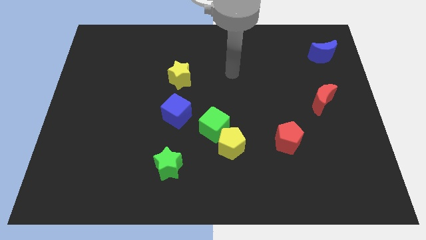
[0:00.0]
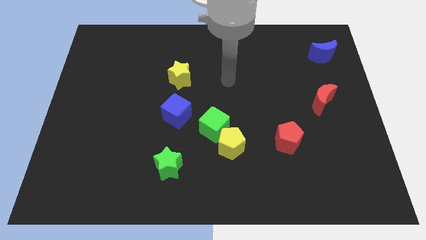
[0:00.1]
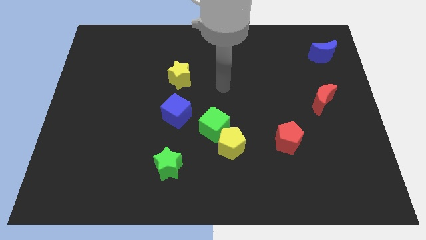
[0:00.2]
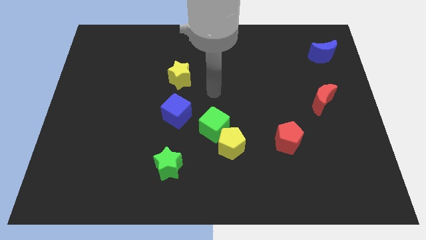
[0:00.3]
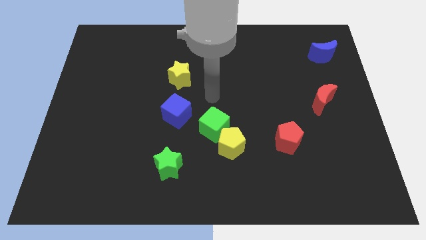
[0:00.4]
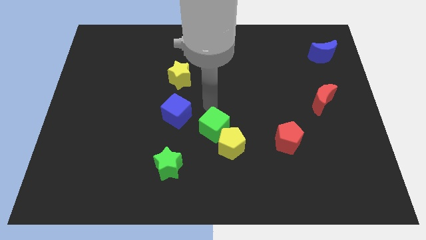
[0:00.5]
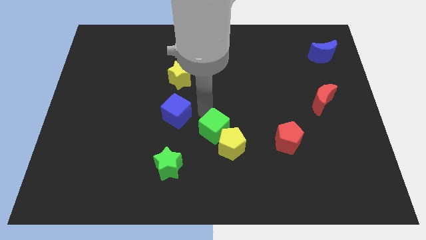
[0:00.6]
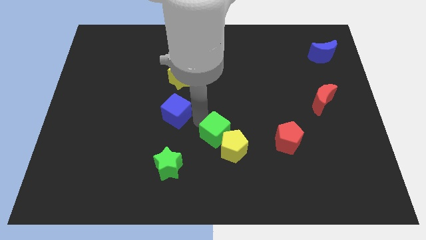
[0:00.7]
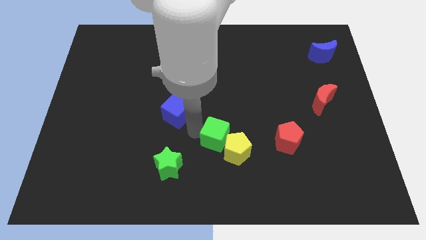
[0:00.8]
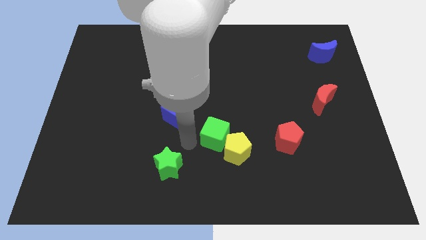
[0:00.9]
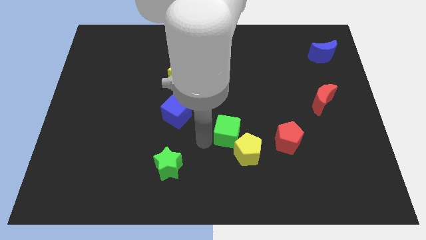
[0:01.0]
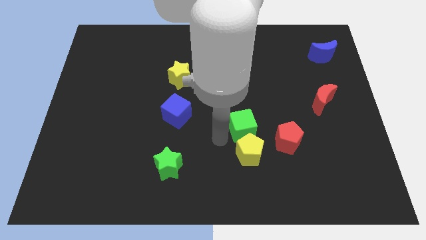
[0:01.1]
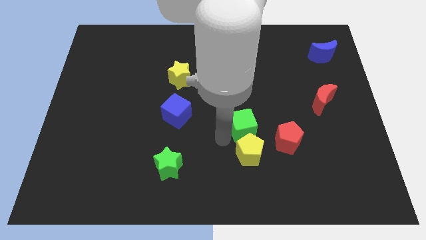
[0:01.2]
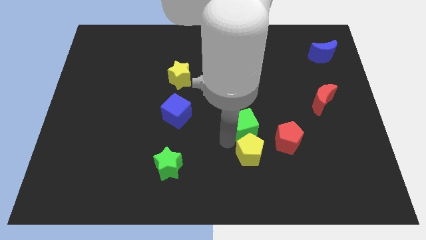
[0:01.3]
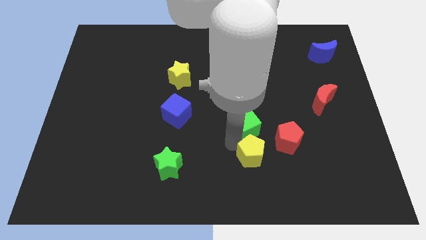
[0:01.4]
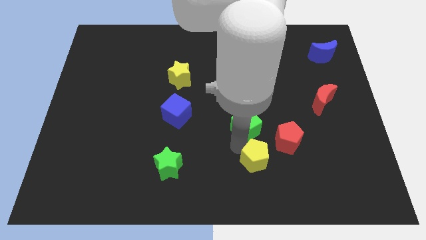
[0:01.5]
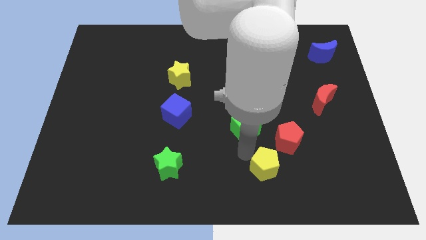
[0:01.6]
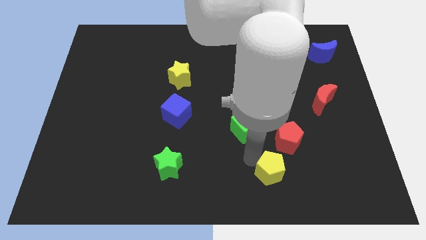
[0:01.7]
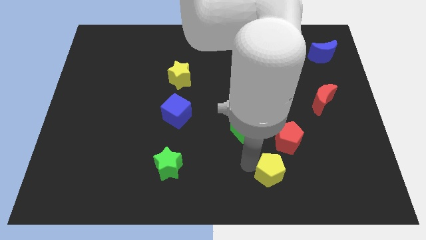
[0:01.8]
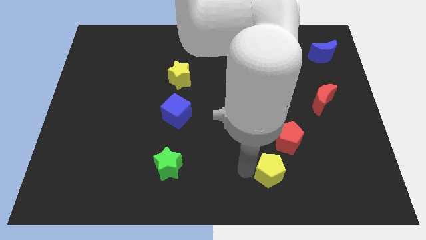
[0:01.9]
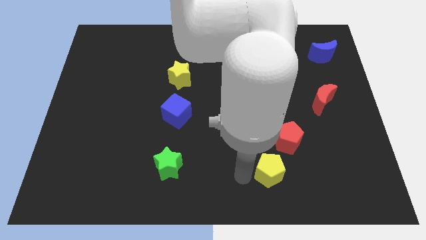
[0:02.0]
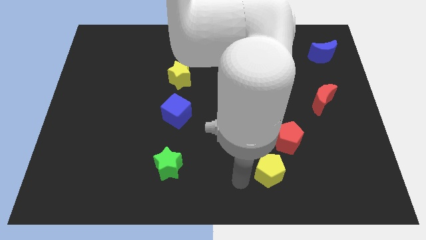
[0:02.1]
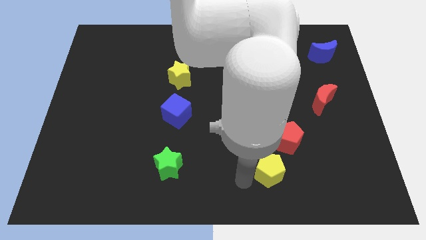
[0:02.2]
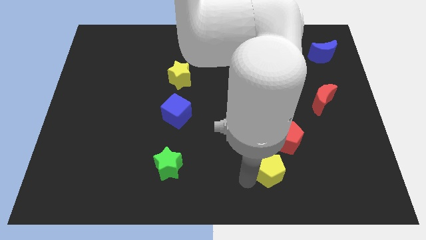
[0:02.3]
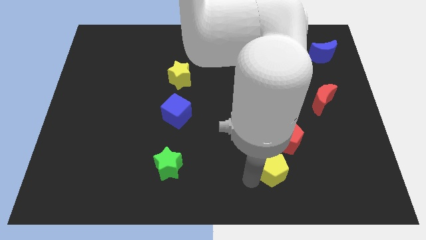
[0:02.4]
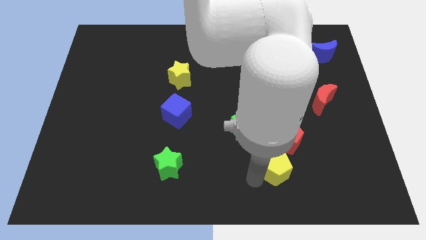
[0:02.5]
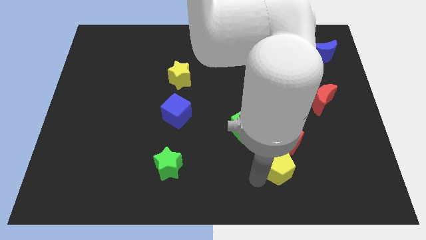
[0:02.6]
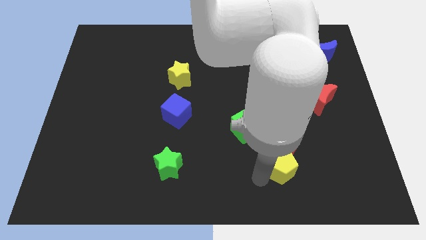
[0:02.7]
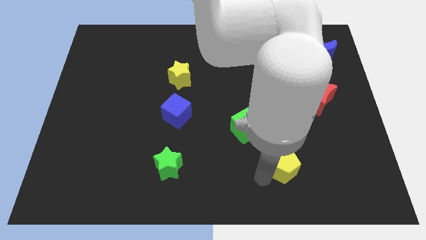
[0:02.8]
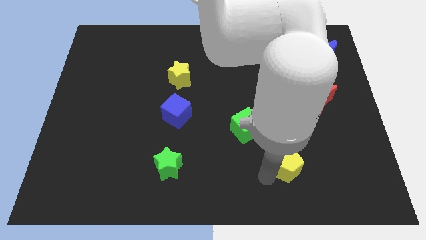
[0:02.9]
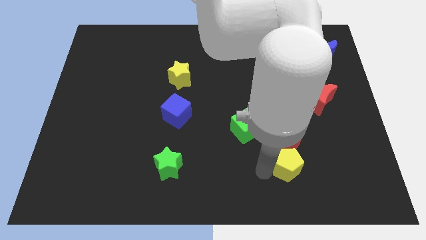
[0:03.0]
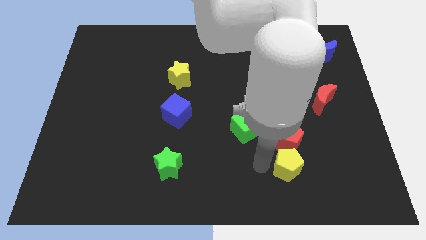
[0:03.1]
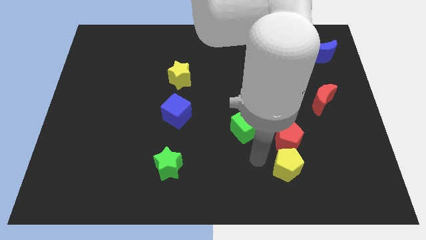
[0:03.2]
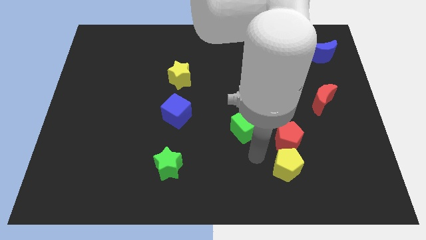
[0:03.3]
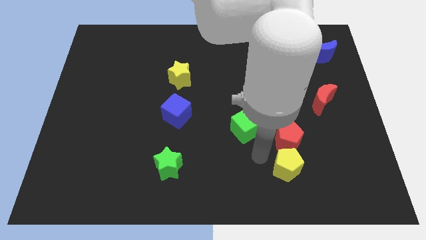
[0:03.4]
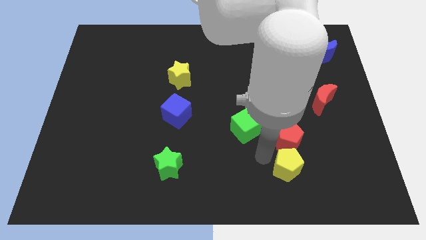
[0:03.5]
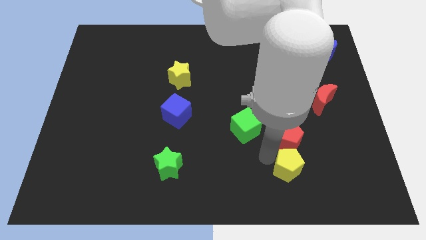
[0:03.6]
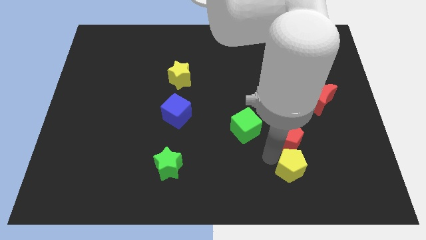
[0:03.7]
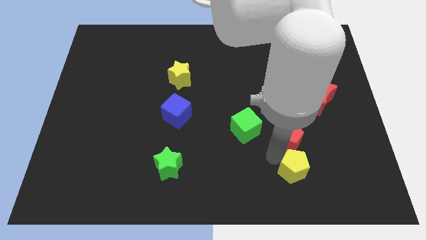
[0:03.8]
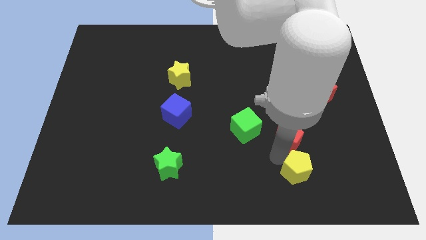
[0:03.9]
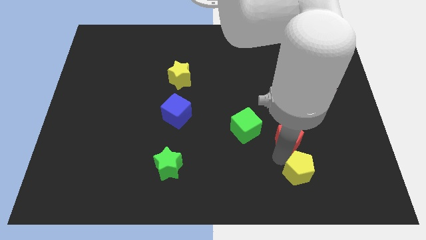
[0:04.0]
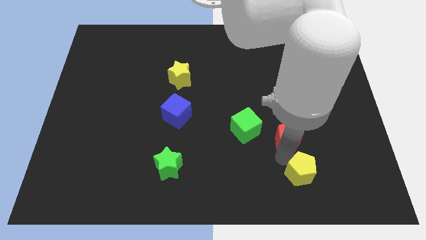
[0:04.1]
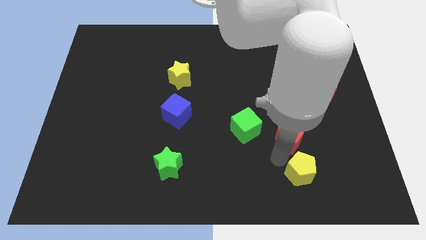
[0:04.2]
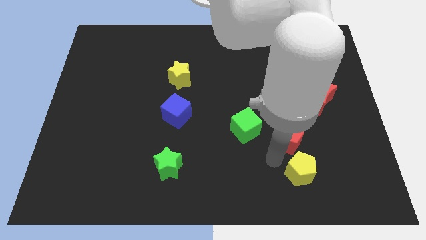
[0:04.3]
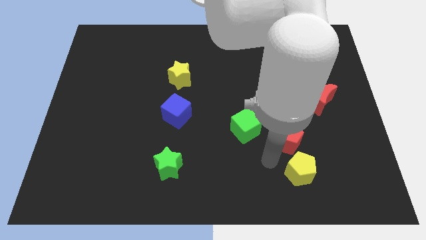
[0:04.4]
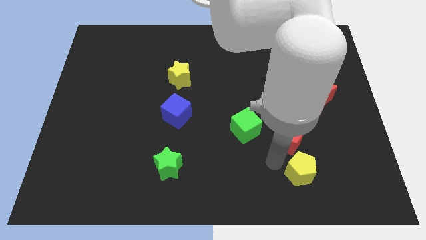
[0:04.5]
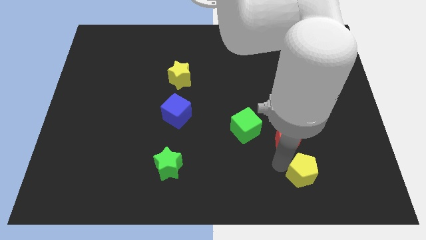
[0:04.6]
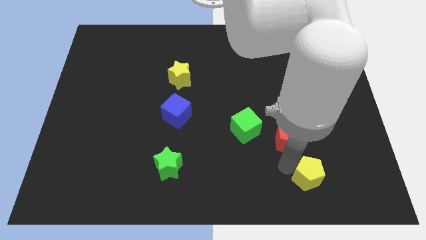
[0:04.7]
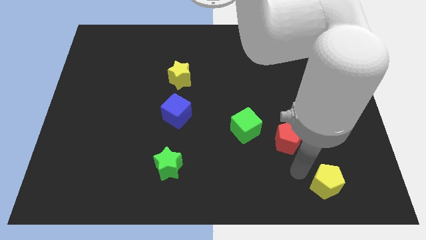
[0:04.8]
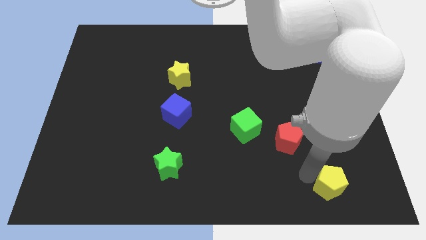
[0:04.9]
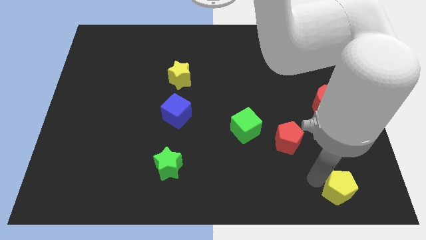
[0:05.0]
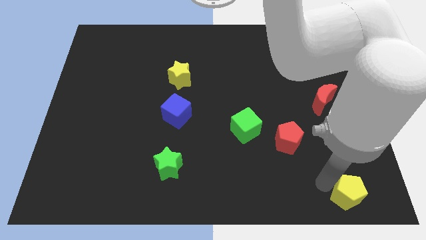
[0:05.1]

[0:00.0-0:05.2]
push the yellow pentagon to the bottom right of the board

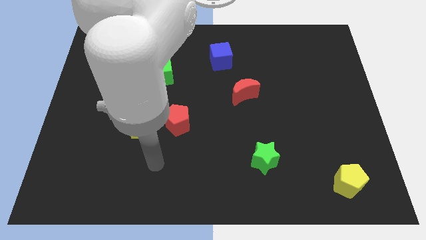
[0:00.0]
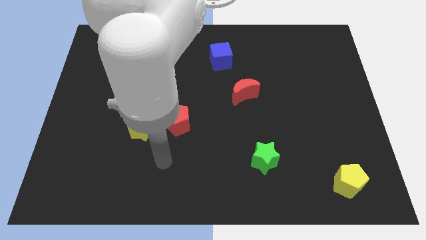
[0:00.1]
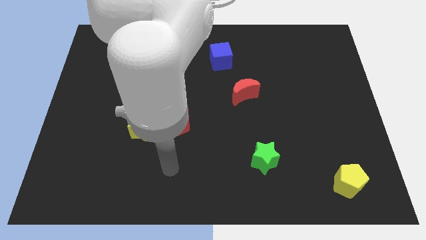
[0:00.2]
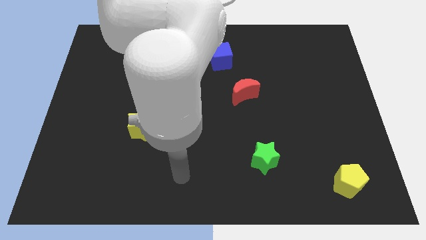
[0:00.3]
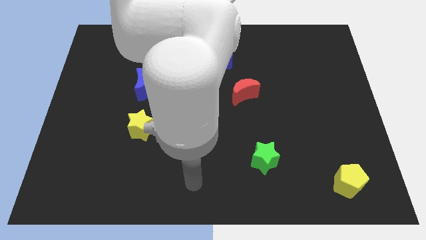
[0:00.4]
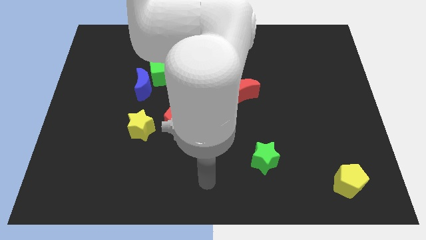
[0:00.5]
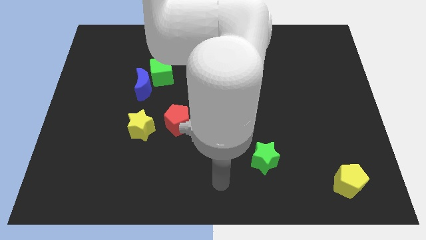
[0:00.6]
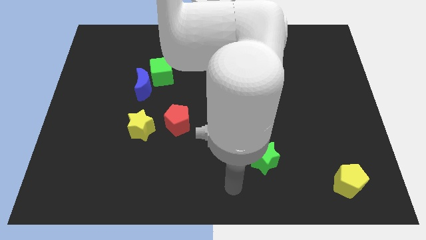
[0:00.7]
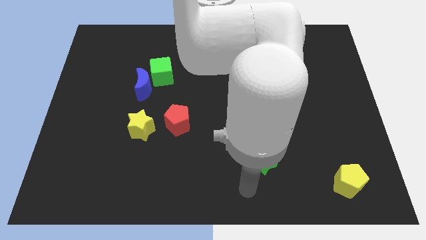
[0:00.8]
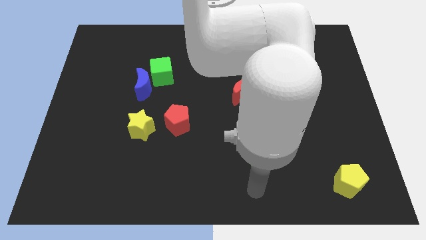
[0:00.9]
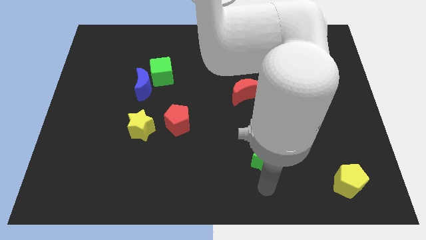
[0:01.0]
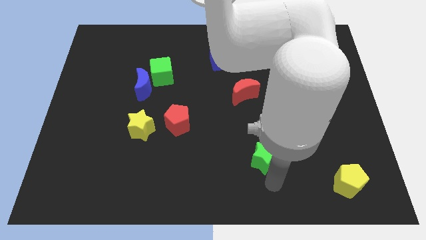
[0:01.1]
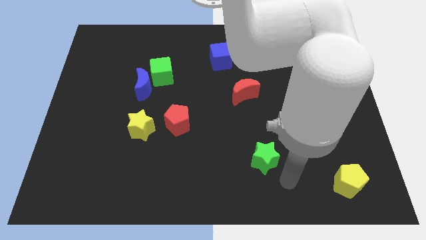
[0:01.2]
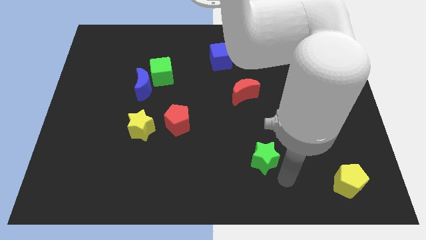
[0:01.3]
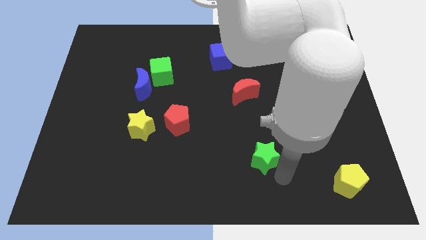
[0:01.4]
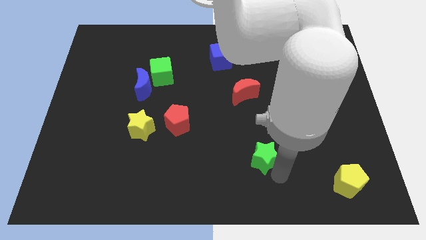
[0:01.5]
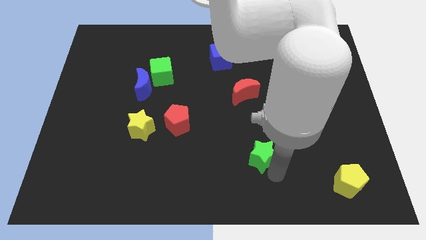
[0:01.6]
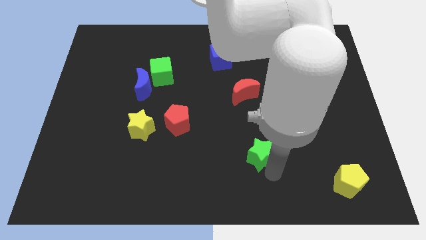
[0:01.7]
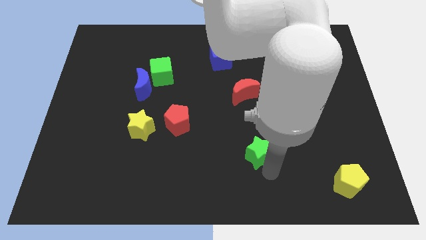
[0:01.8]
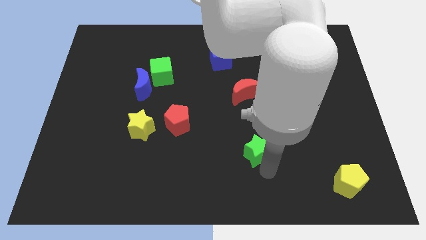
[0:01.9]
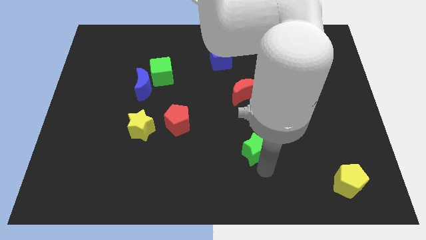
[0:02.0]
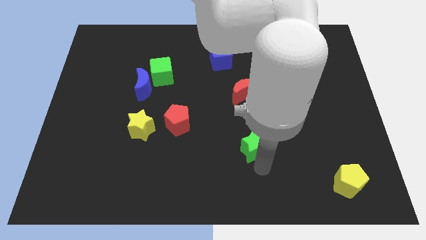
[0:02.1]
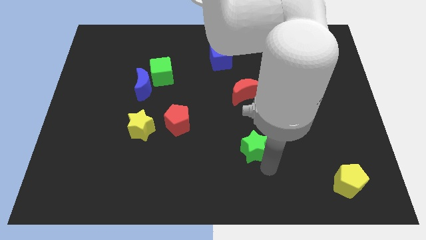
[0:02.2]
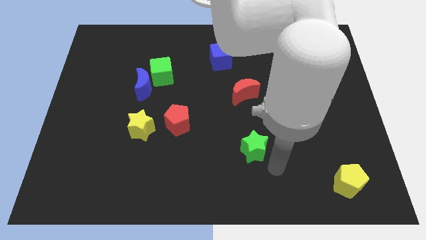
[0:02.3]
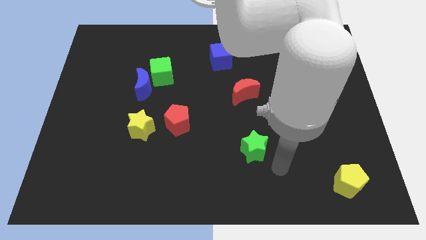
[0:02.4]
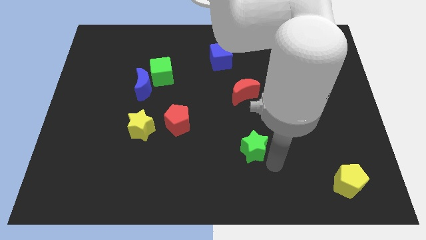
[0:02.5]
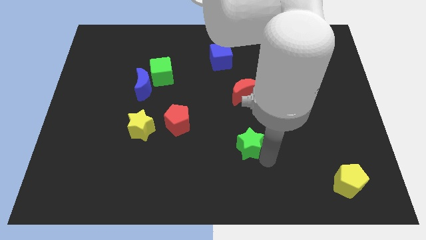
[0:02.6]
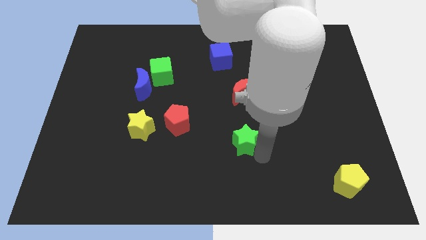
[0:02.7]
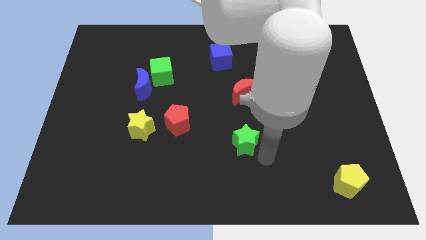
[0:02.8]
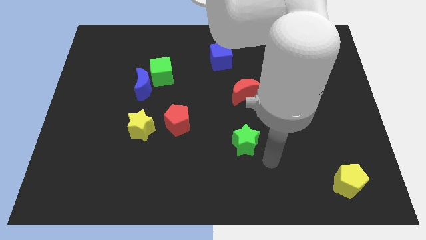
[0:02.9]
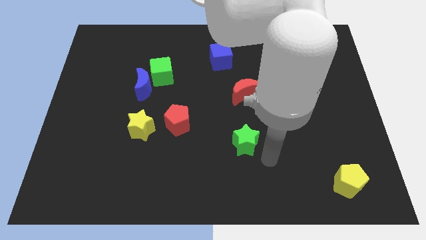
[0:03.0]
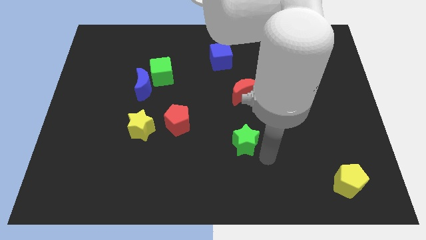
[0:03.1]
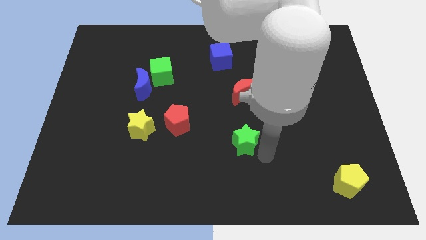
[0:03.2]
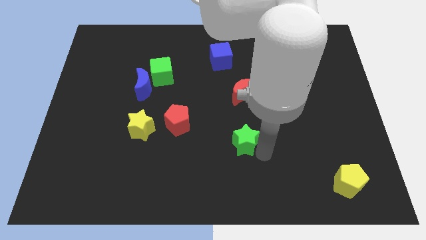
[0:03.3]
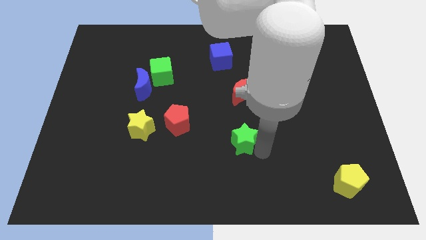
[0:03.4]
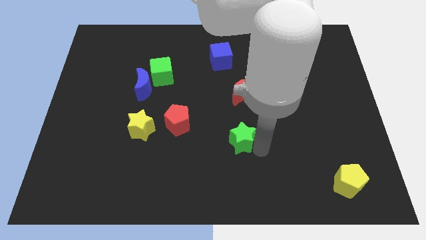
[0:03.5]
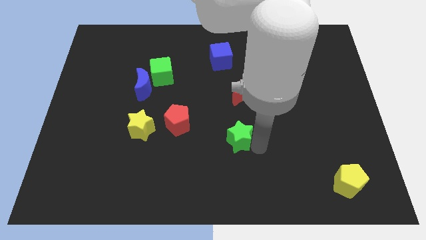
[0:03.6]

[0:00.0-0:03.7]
move the green star to the center of the board
